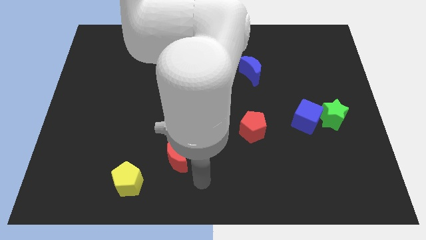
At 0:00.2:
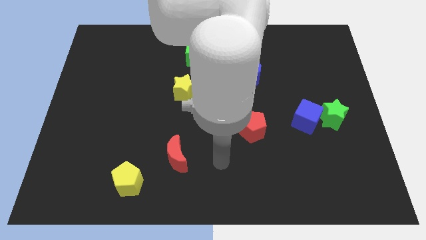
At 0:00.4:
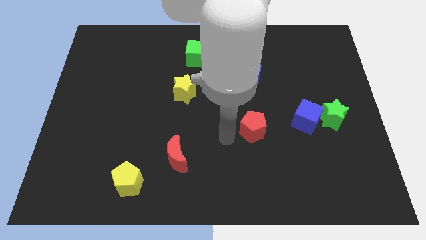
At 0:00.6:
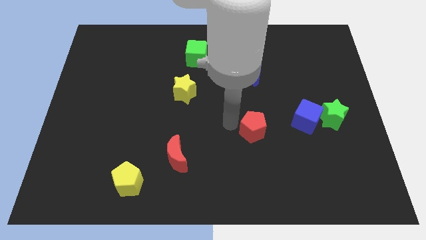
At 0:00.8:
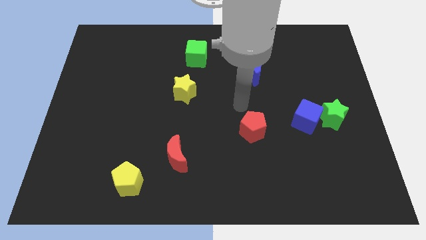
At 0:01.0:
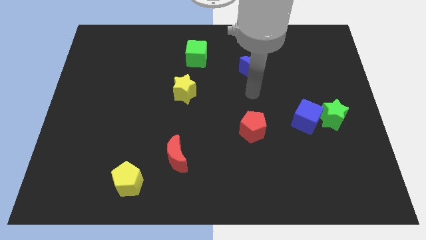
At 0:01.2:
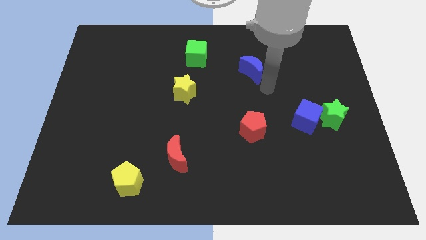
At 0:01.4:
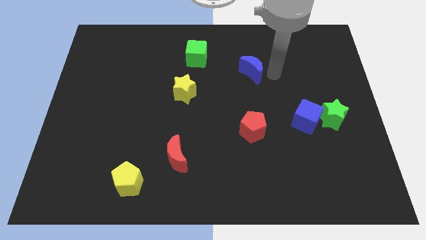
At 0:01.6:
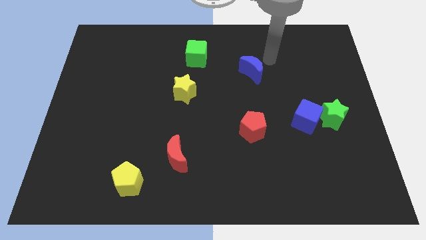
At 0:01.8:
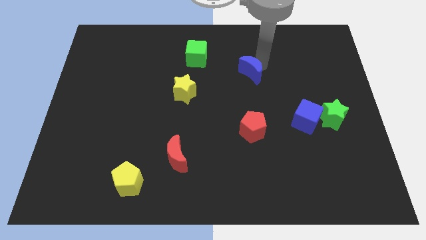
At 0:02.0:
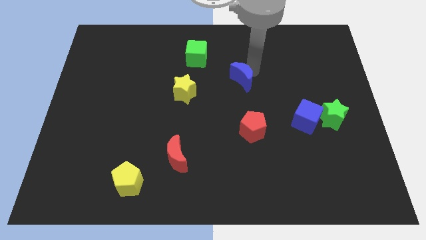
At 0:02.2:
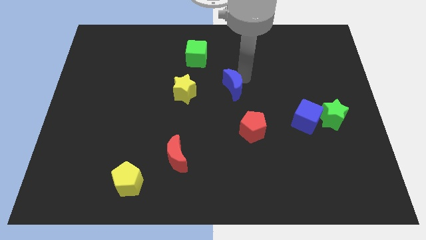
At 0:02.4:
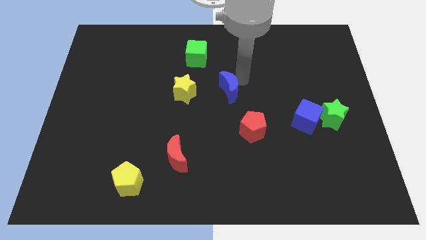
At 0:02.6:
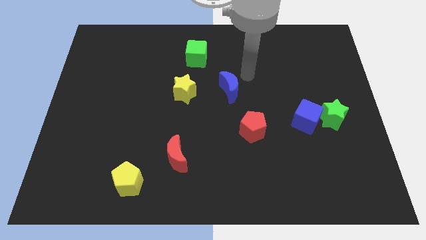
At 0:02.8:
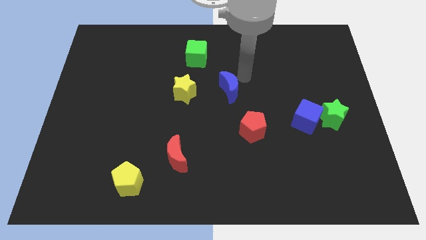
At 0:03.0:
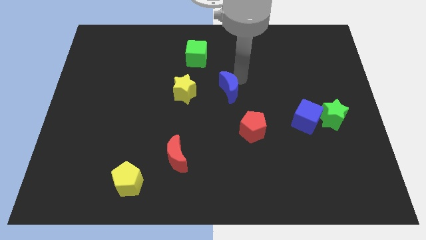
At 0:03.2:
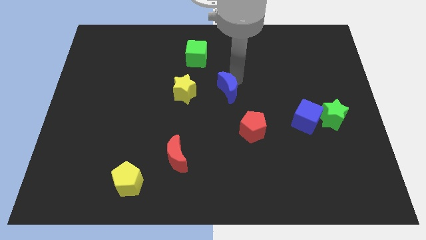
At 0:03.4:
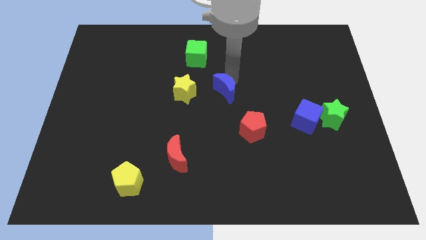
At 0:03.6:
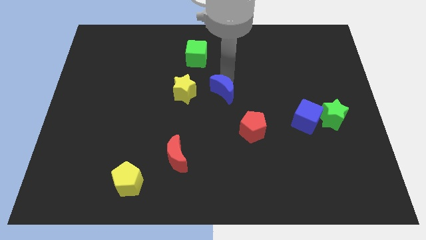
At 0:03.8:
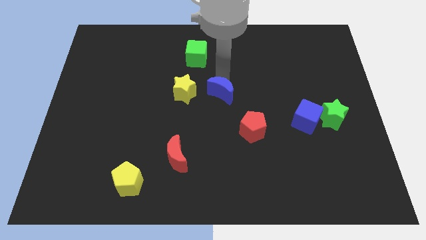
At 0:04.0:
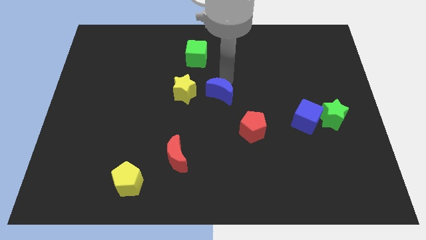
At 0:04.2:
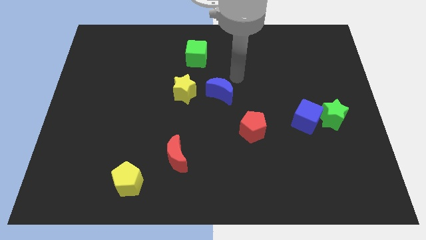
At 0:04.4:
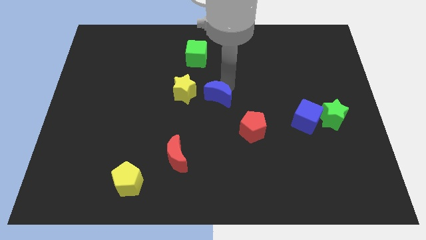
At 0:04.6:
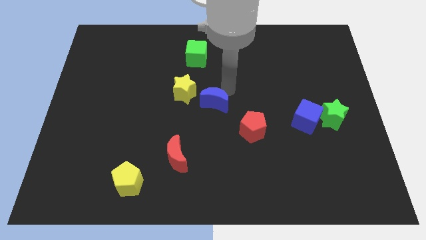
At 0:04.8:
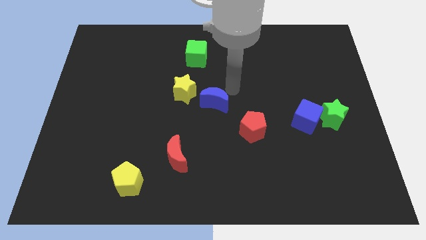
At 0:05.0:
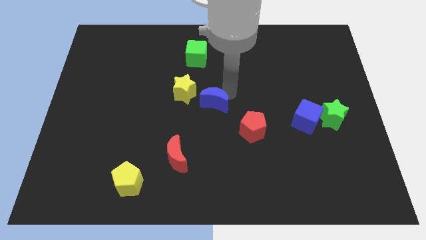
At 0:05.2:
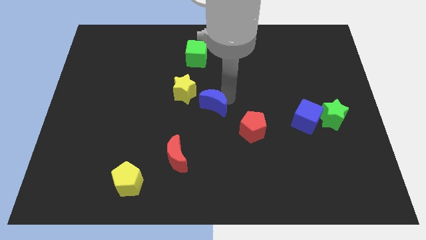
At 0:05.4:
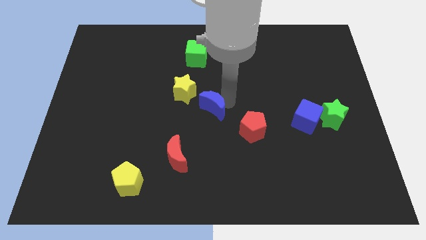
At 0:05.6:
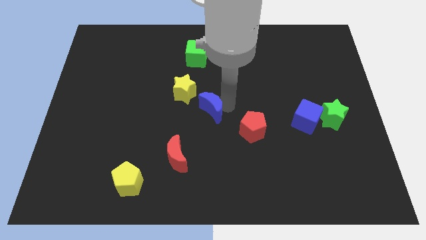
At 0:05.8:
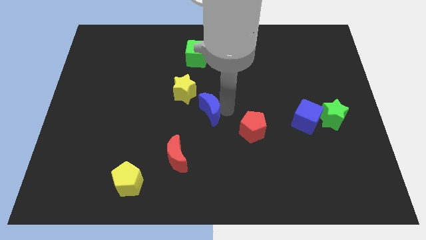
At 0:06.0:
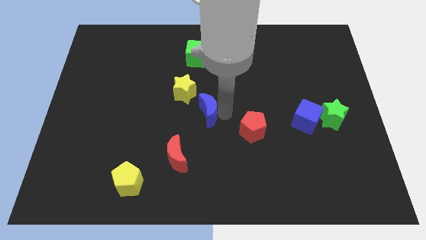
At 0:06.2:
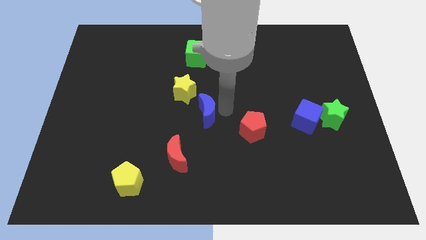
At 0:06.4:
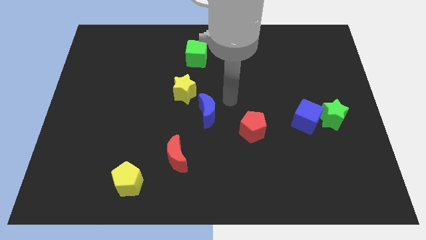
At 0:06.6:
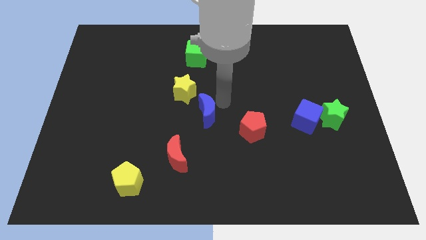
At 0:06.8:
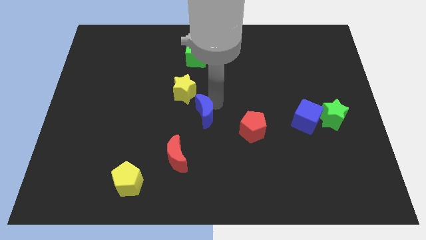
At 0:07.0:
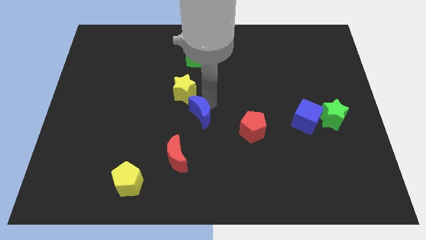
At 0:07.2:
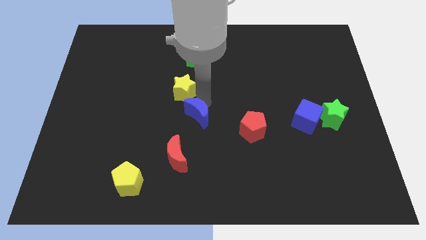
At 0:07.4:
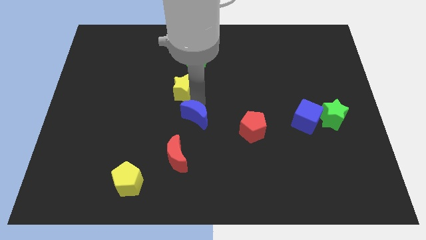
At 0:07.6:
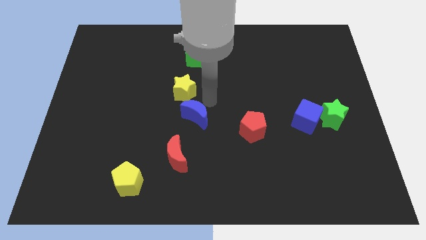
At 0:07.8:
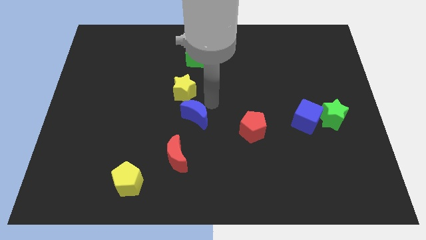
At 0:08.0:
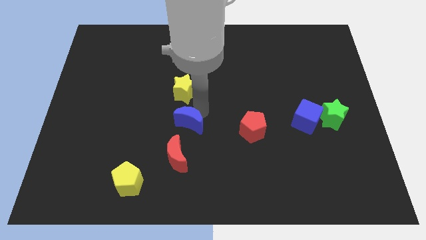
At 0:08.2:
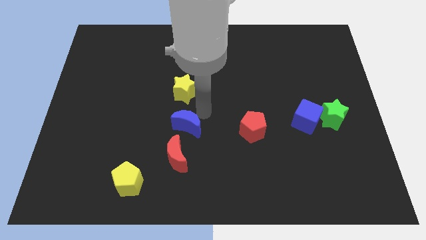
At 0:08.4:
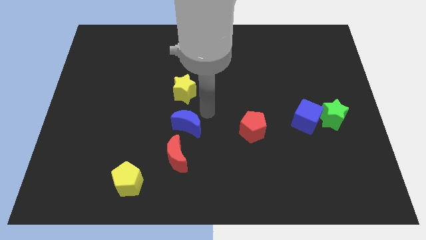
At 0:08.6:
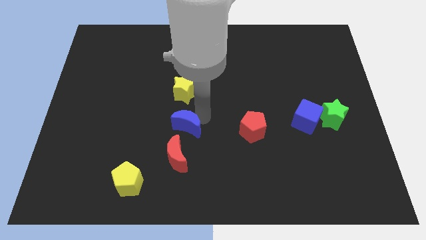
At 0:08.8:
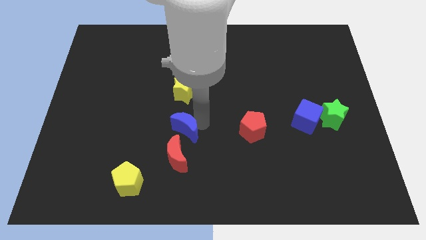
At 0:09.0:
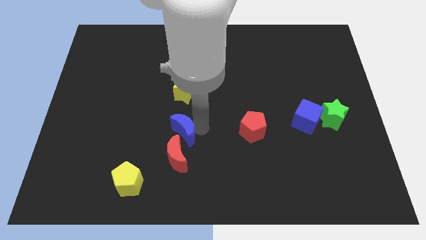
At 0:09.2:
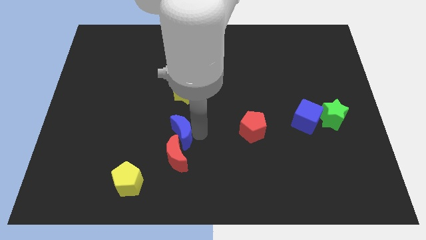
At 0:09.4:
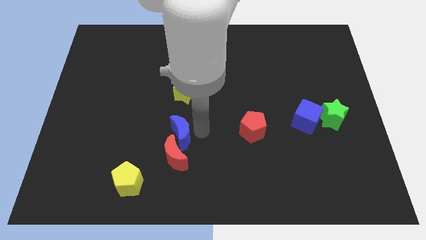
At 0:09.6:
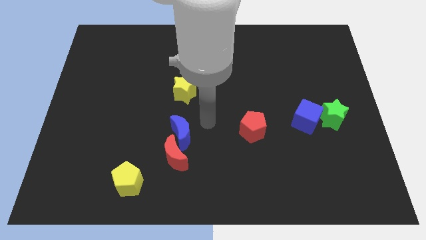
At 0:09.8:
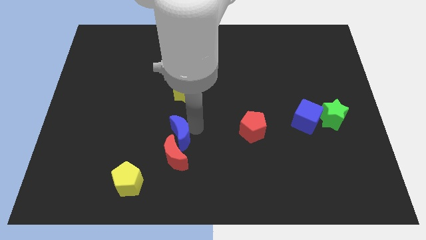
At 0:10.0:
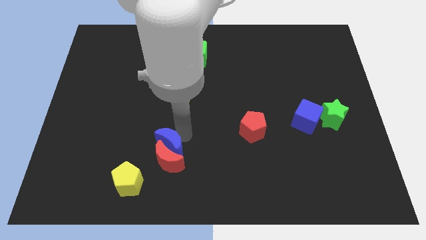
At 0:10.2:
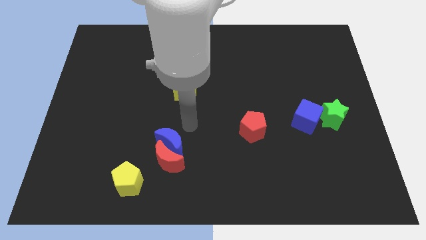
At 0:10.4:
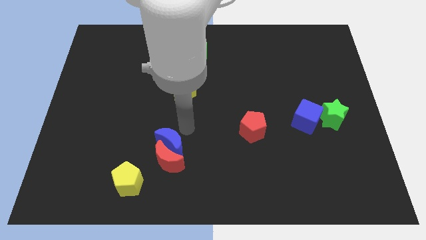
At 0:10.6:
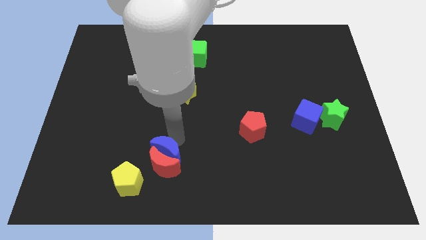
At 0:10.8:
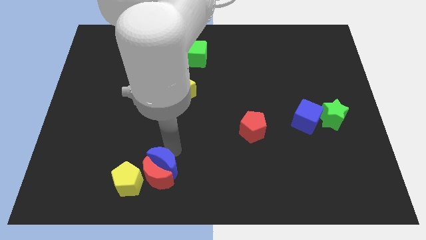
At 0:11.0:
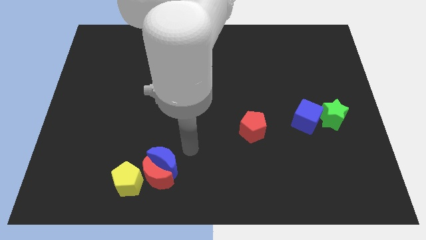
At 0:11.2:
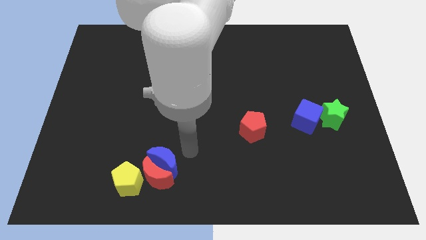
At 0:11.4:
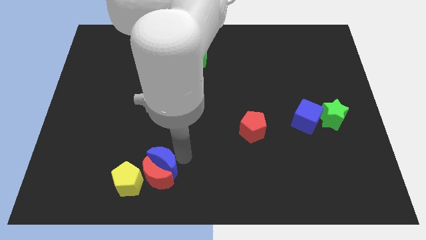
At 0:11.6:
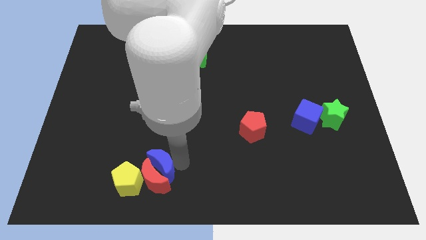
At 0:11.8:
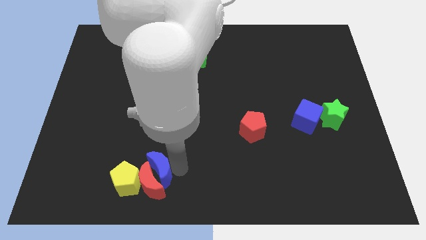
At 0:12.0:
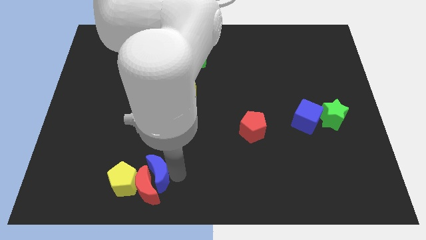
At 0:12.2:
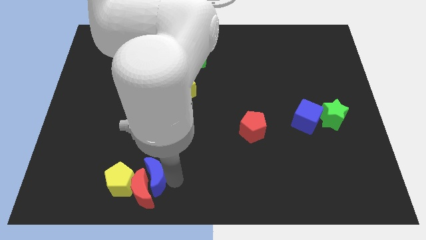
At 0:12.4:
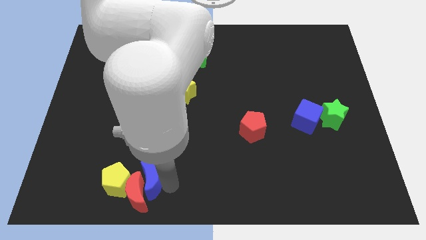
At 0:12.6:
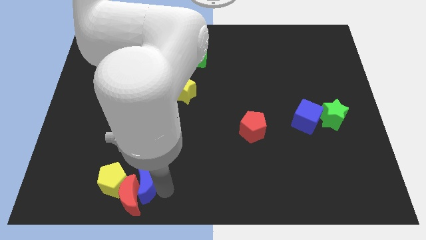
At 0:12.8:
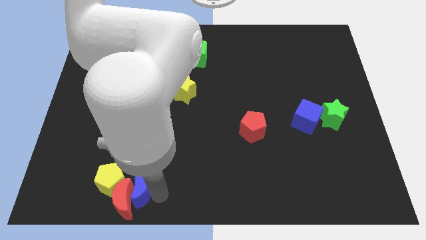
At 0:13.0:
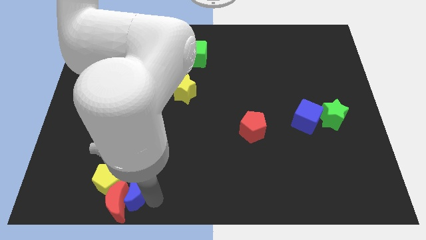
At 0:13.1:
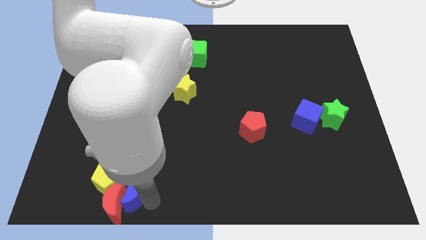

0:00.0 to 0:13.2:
slide the blue moon close to the yellow pentagon

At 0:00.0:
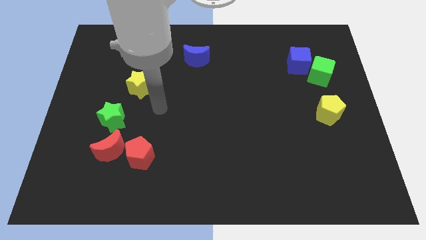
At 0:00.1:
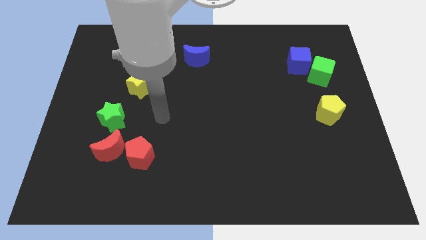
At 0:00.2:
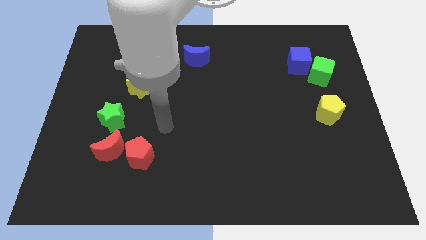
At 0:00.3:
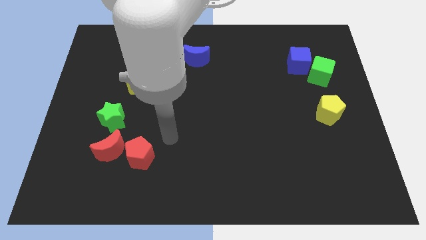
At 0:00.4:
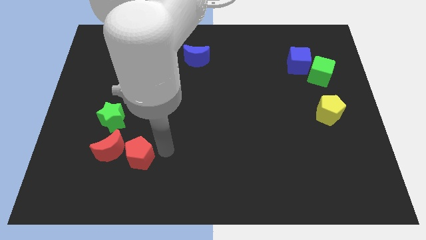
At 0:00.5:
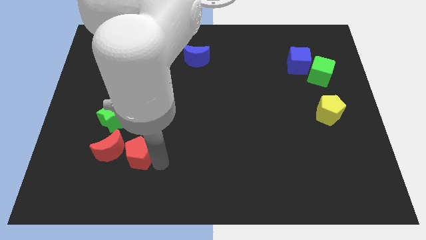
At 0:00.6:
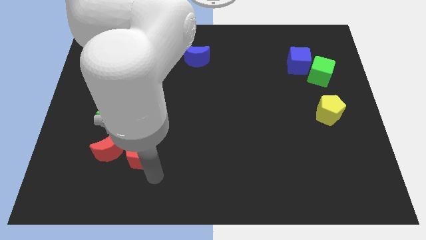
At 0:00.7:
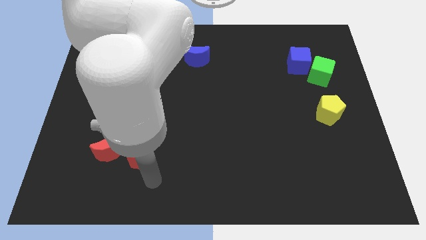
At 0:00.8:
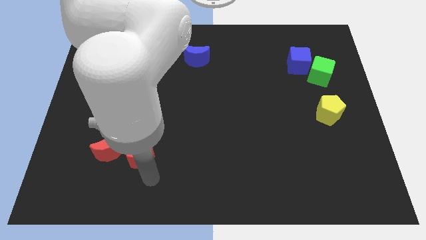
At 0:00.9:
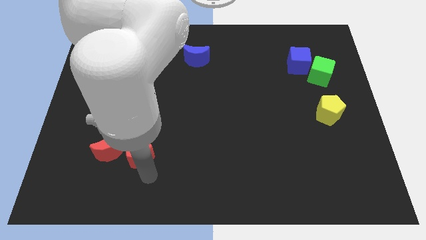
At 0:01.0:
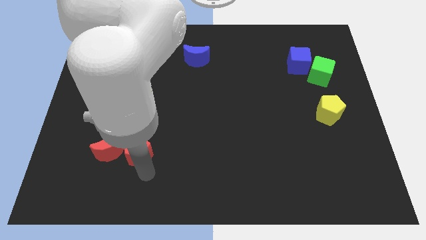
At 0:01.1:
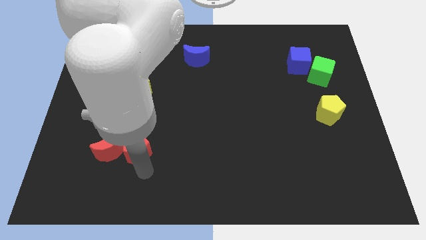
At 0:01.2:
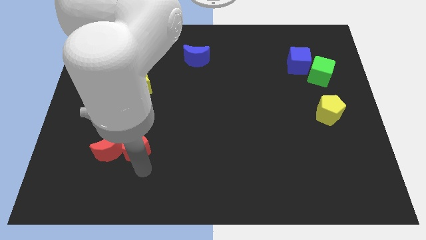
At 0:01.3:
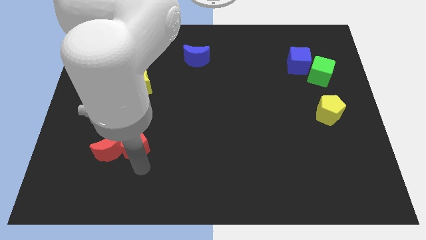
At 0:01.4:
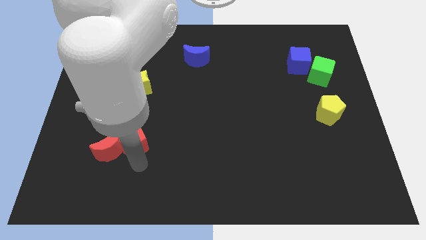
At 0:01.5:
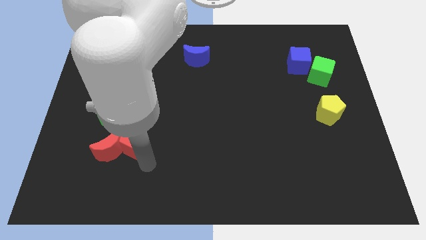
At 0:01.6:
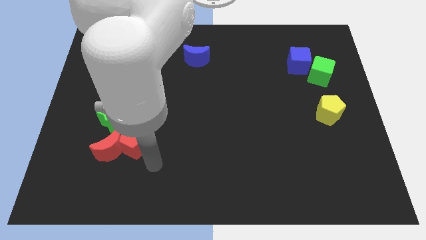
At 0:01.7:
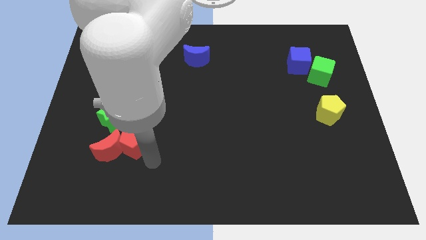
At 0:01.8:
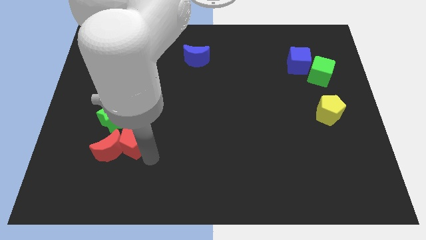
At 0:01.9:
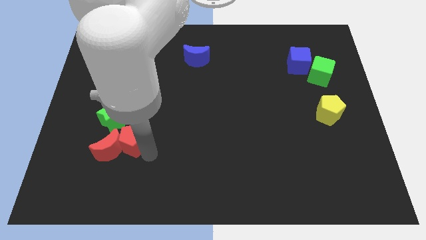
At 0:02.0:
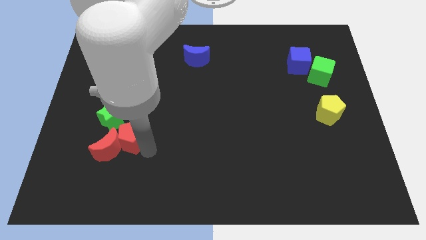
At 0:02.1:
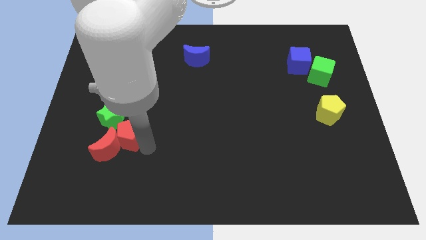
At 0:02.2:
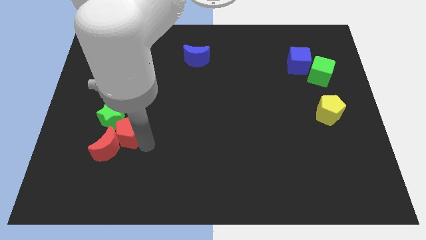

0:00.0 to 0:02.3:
slide the red pentagon towards the green star
